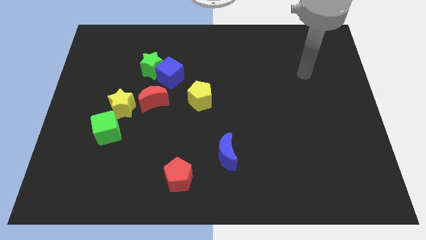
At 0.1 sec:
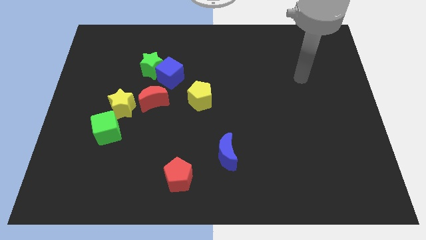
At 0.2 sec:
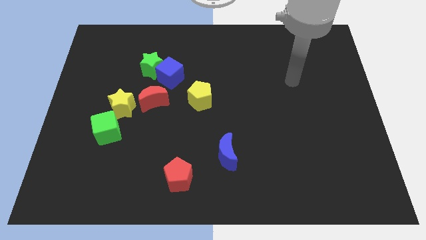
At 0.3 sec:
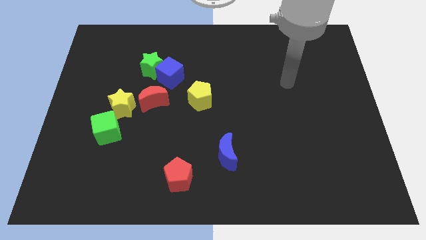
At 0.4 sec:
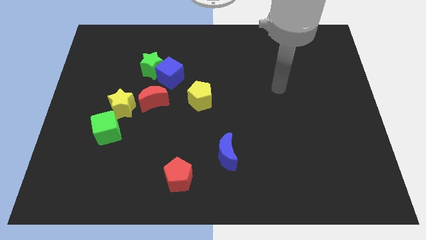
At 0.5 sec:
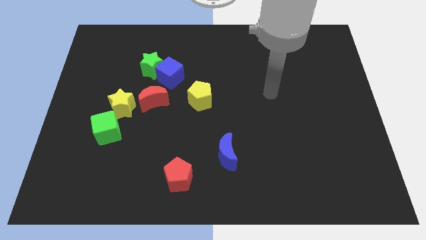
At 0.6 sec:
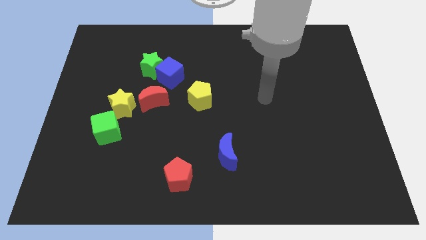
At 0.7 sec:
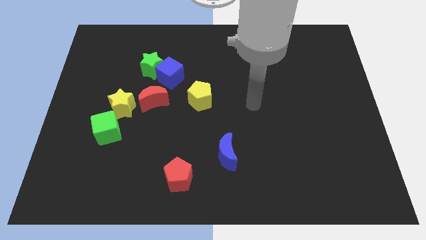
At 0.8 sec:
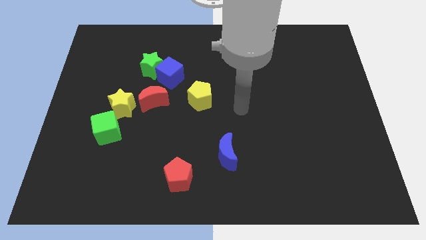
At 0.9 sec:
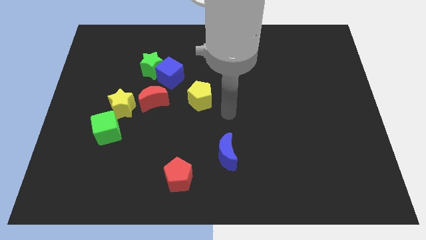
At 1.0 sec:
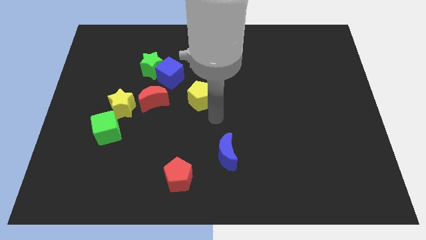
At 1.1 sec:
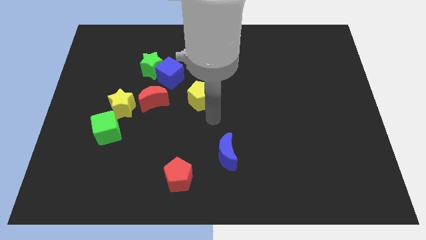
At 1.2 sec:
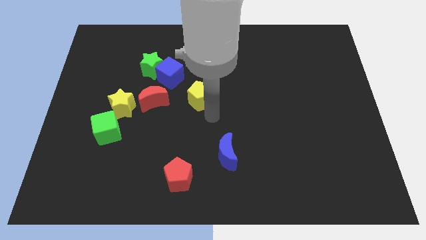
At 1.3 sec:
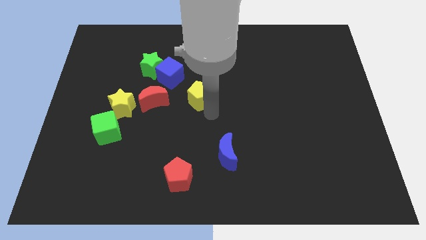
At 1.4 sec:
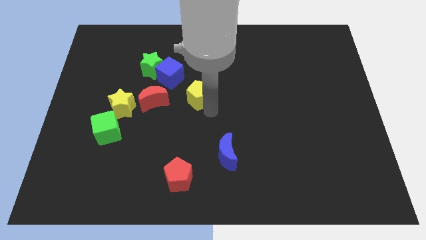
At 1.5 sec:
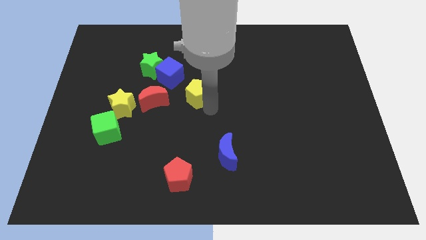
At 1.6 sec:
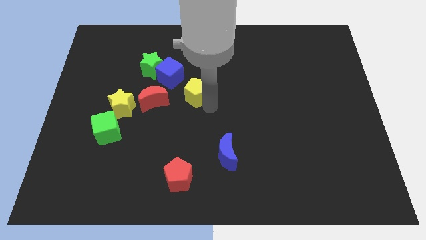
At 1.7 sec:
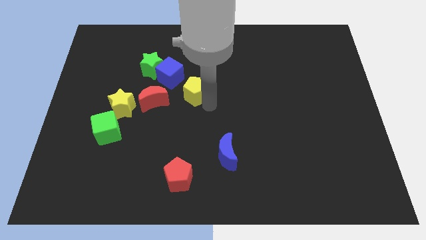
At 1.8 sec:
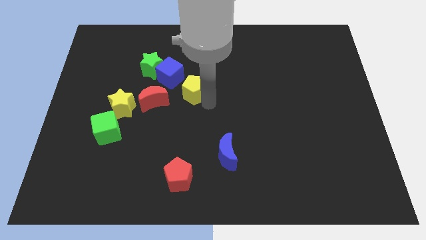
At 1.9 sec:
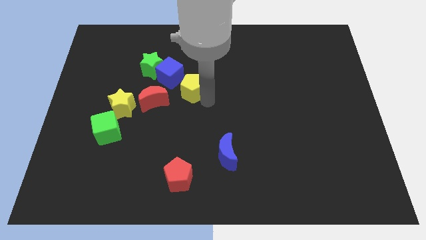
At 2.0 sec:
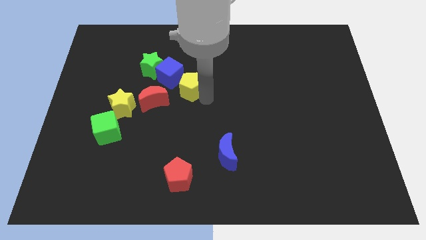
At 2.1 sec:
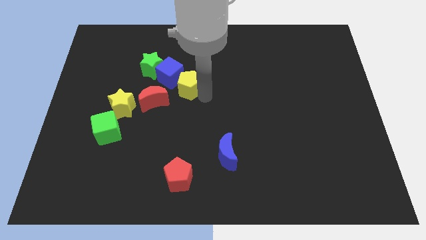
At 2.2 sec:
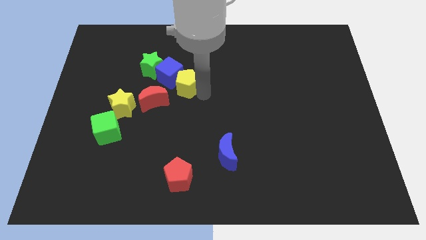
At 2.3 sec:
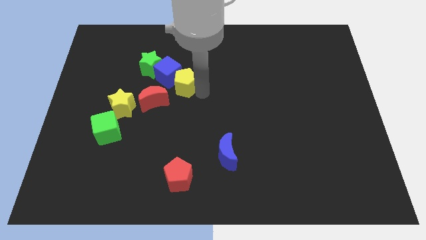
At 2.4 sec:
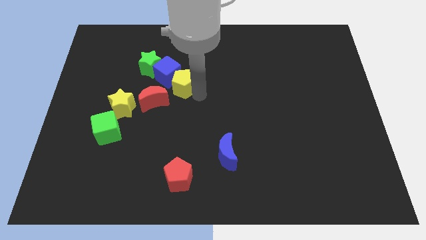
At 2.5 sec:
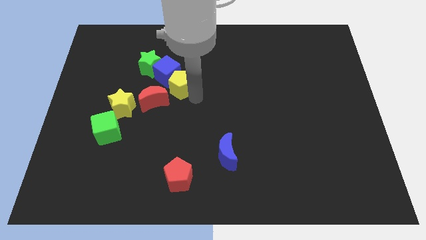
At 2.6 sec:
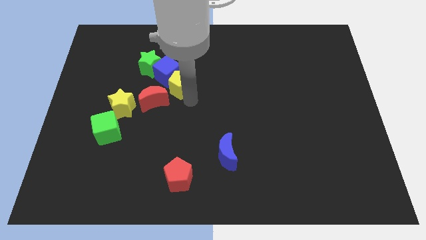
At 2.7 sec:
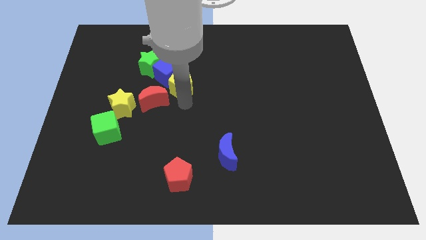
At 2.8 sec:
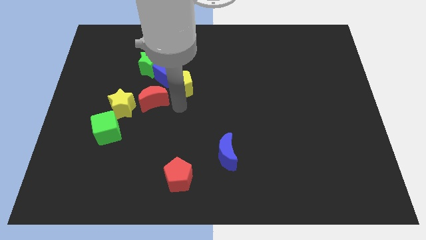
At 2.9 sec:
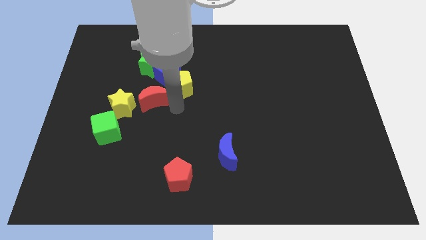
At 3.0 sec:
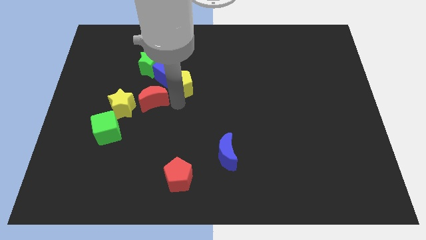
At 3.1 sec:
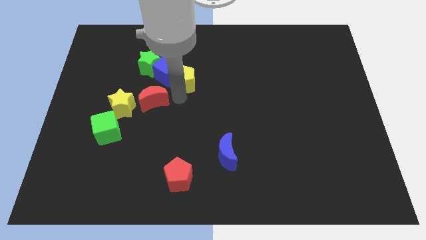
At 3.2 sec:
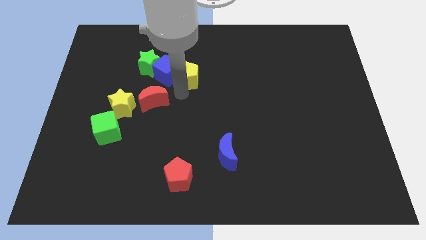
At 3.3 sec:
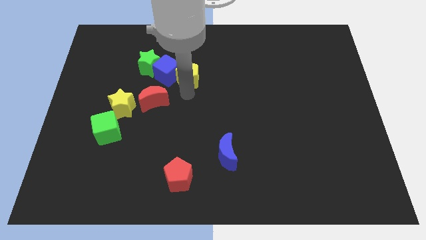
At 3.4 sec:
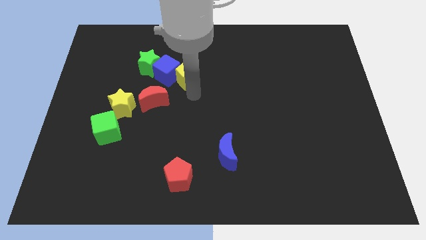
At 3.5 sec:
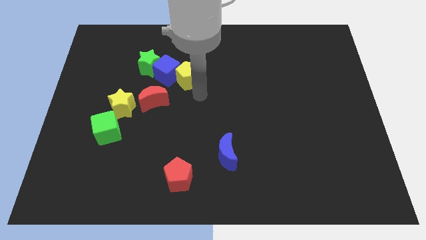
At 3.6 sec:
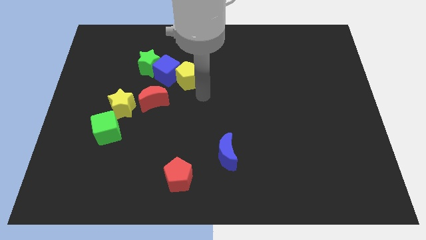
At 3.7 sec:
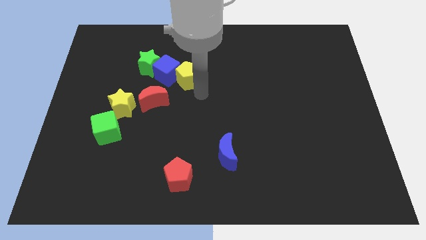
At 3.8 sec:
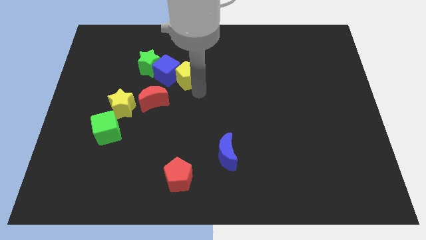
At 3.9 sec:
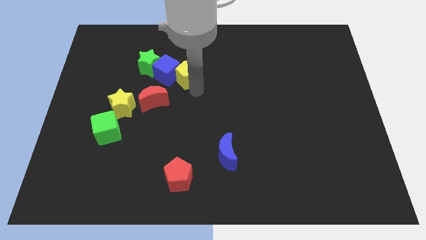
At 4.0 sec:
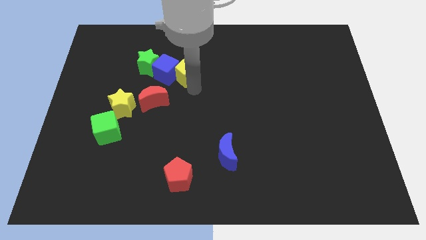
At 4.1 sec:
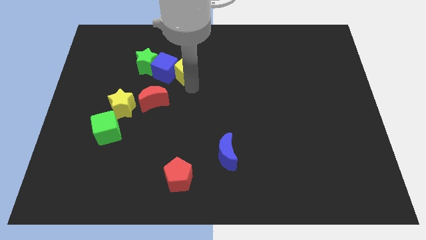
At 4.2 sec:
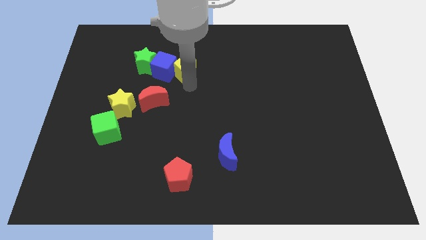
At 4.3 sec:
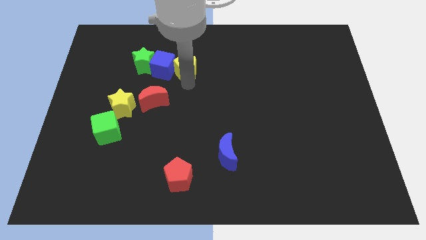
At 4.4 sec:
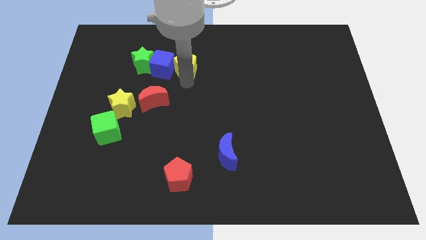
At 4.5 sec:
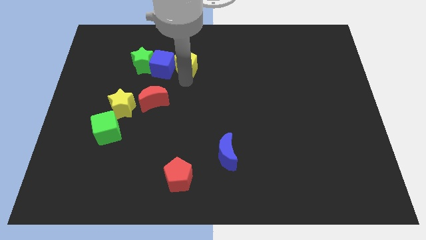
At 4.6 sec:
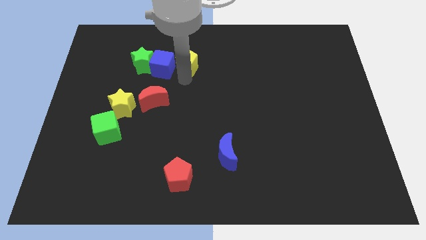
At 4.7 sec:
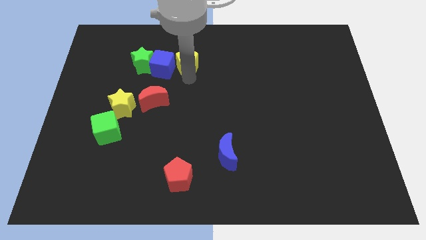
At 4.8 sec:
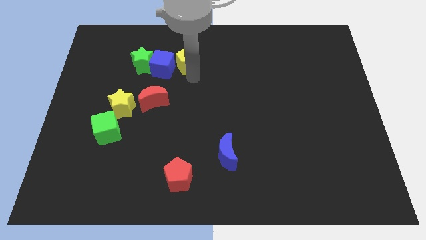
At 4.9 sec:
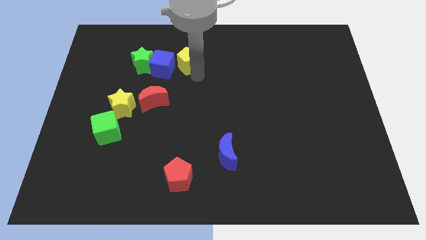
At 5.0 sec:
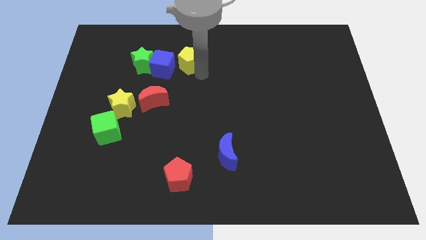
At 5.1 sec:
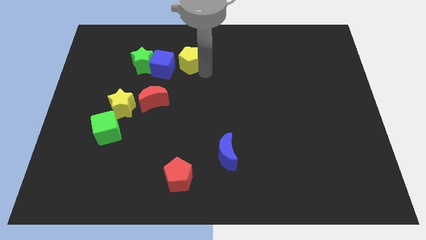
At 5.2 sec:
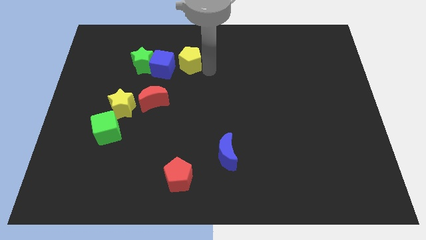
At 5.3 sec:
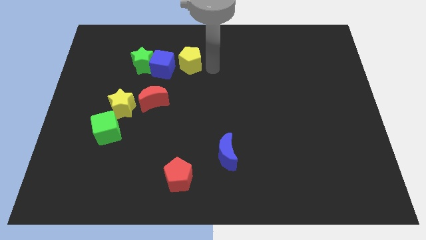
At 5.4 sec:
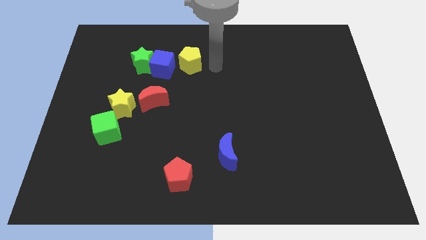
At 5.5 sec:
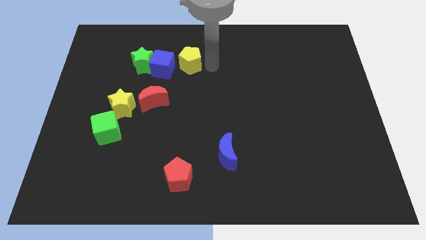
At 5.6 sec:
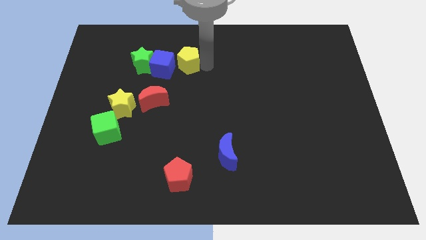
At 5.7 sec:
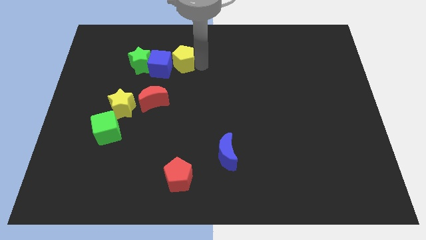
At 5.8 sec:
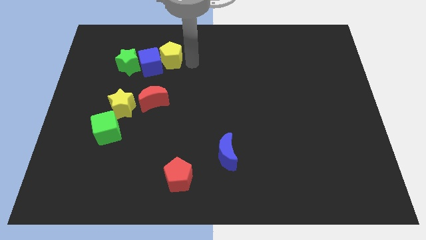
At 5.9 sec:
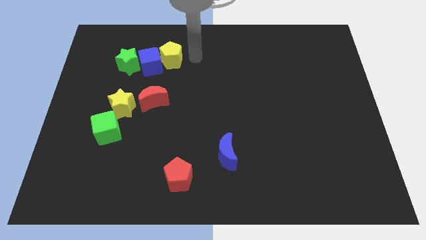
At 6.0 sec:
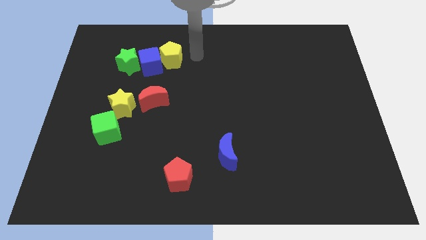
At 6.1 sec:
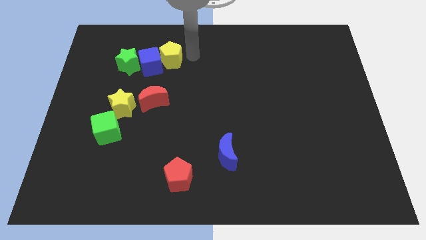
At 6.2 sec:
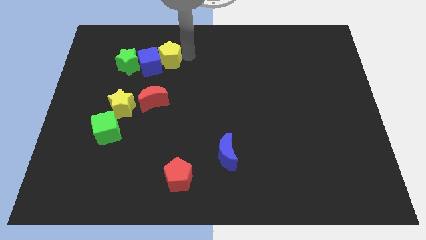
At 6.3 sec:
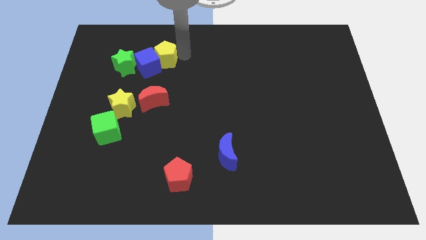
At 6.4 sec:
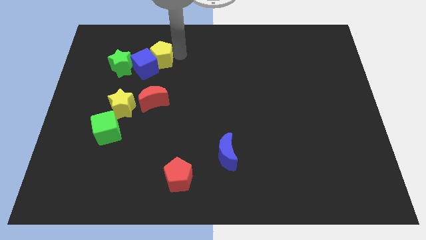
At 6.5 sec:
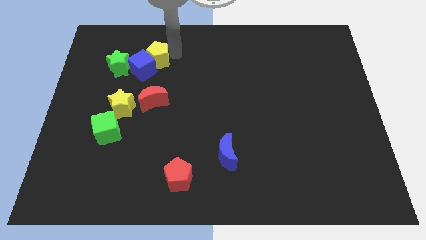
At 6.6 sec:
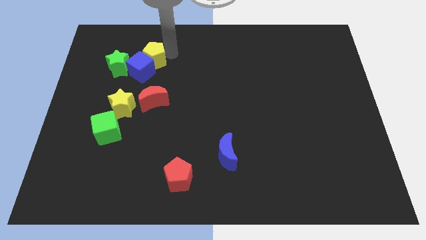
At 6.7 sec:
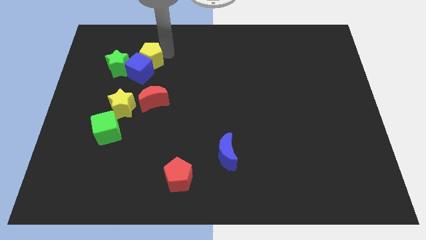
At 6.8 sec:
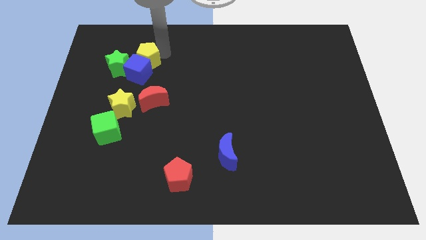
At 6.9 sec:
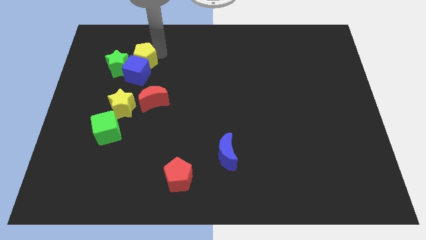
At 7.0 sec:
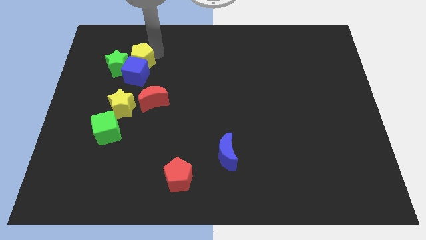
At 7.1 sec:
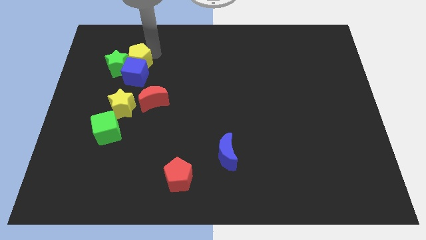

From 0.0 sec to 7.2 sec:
slide the yellow pentagon towards the green star
